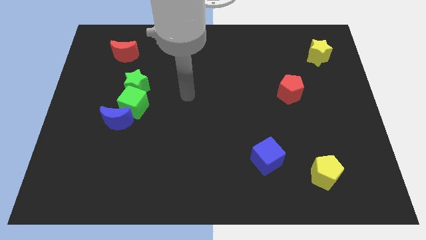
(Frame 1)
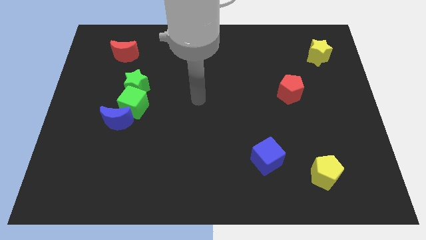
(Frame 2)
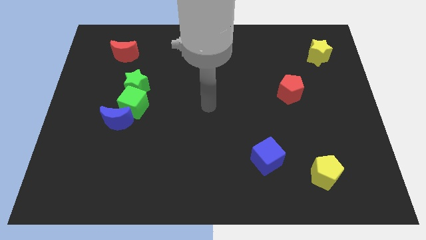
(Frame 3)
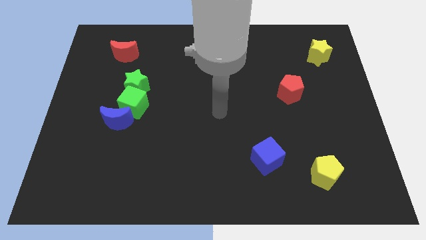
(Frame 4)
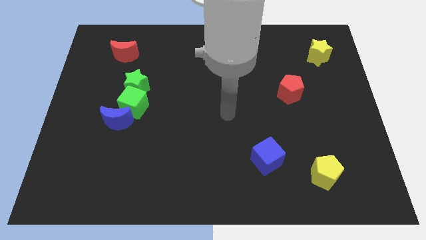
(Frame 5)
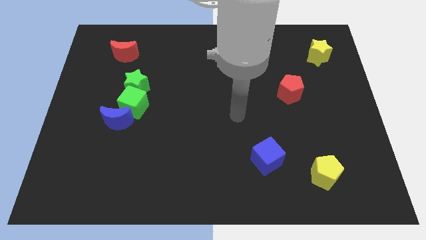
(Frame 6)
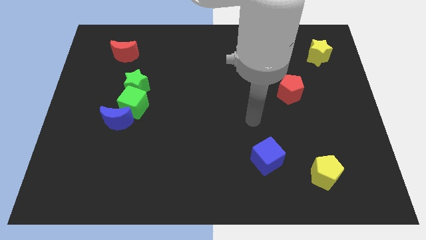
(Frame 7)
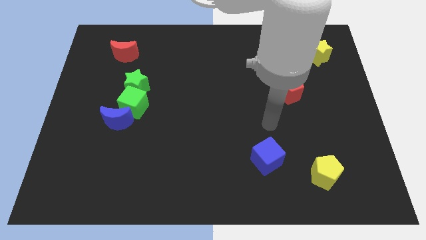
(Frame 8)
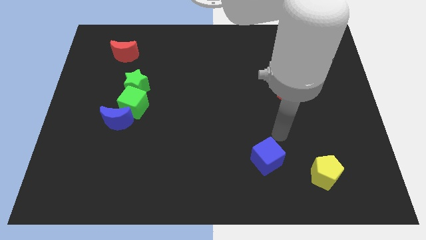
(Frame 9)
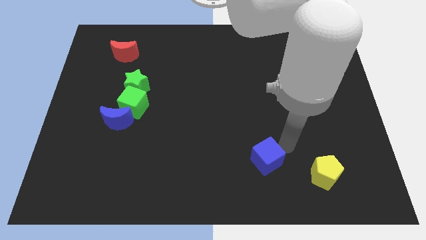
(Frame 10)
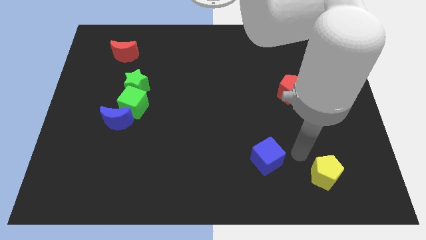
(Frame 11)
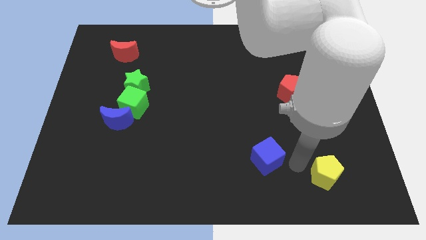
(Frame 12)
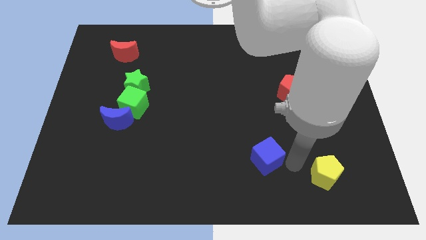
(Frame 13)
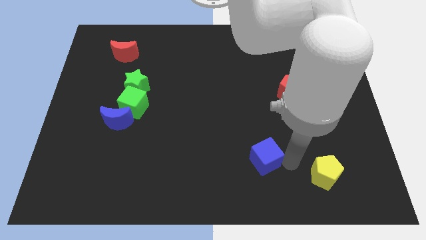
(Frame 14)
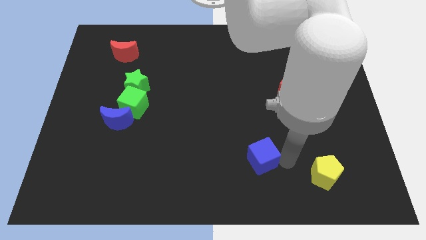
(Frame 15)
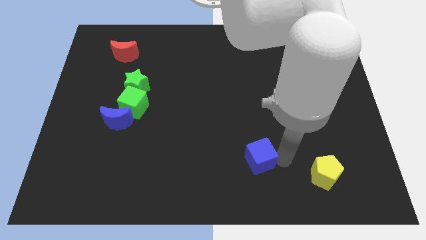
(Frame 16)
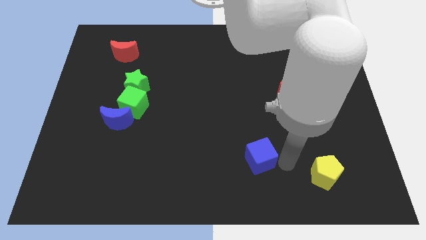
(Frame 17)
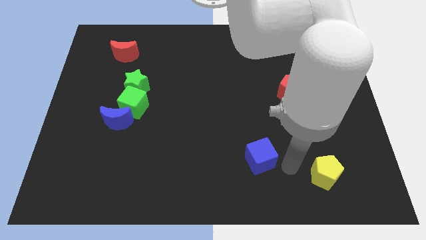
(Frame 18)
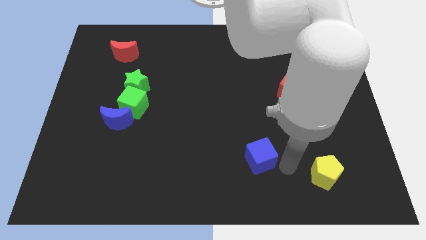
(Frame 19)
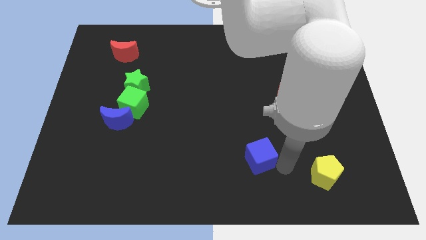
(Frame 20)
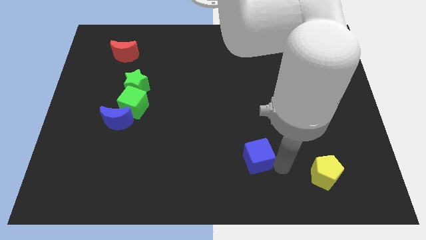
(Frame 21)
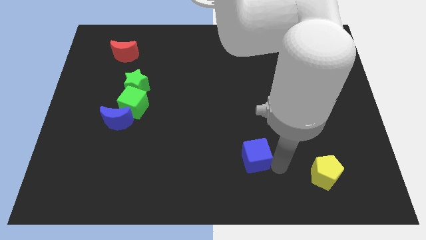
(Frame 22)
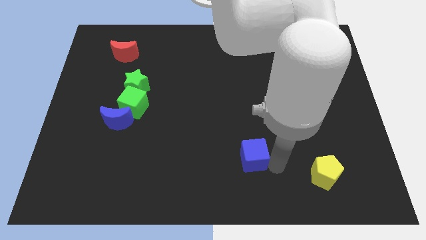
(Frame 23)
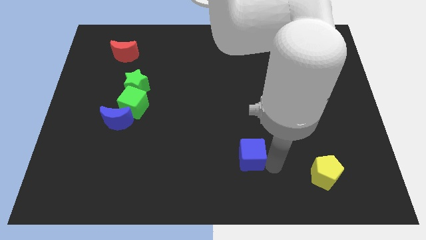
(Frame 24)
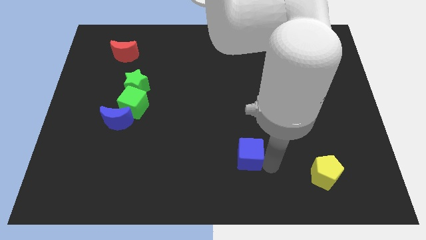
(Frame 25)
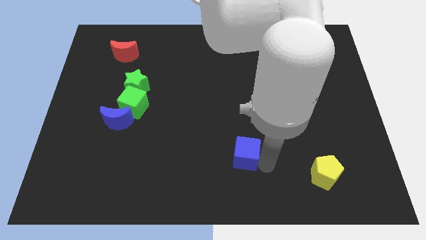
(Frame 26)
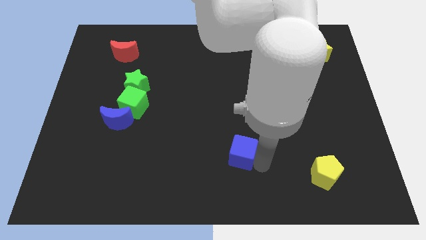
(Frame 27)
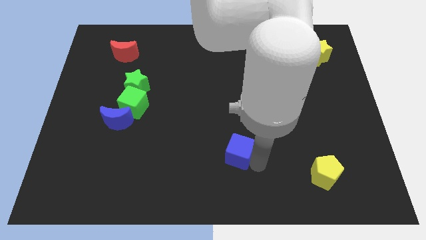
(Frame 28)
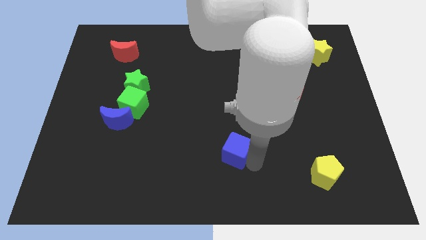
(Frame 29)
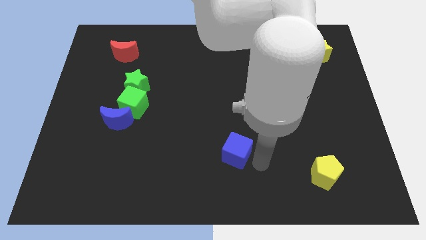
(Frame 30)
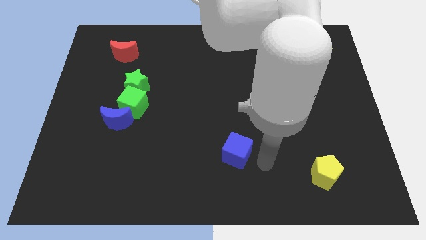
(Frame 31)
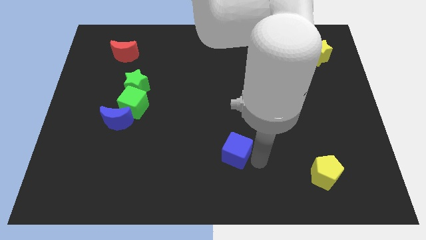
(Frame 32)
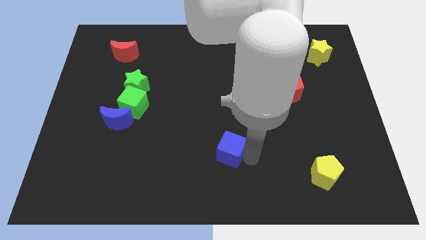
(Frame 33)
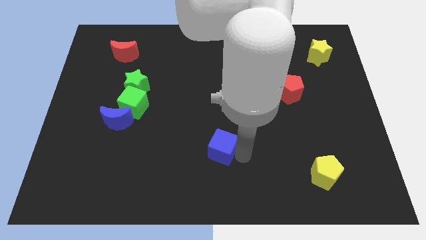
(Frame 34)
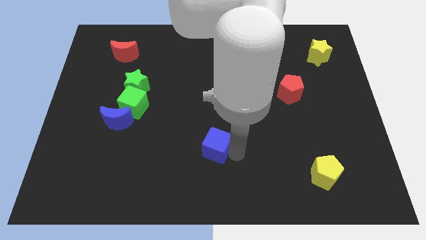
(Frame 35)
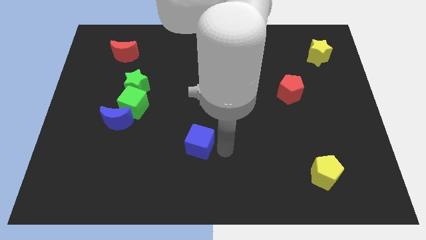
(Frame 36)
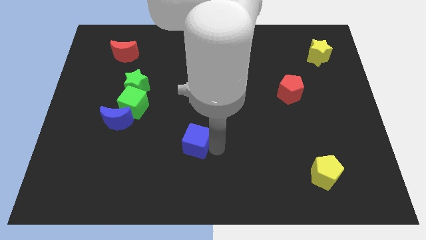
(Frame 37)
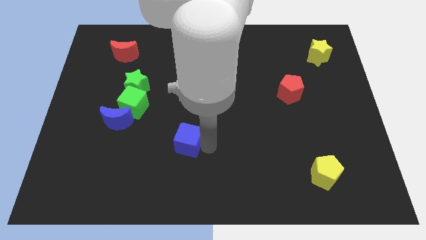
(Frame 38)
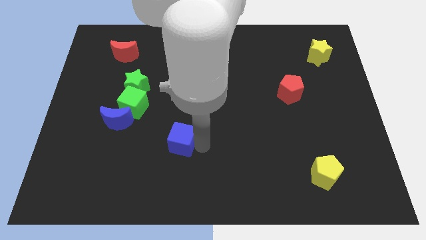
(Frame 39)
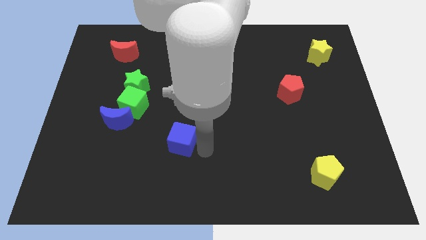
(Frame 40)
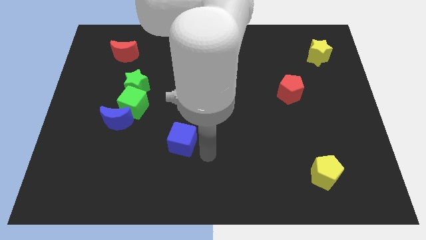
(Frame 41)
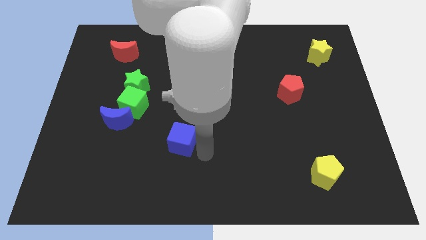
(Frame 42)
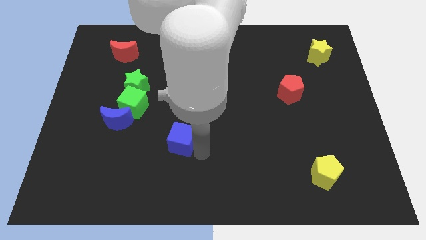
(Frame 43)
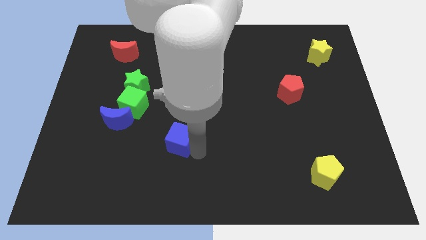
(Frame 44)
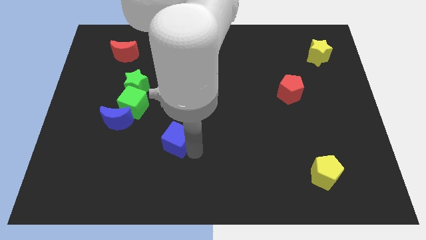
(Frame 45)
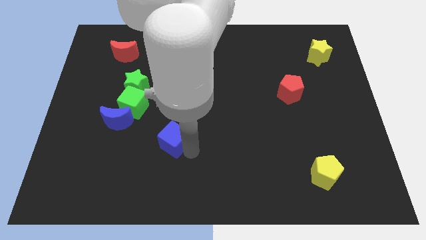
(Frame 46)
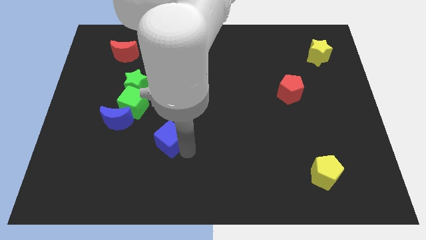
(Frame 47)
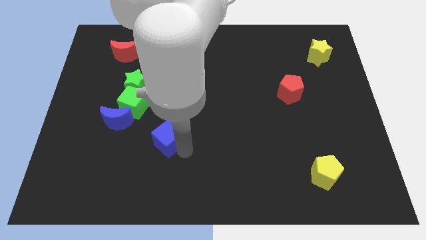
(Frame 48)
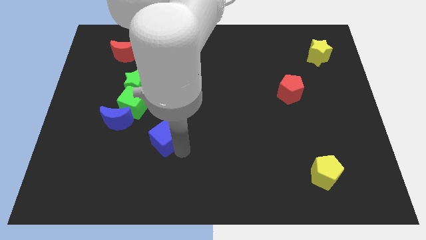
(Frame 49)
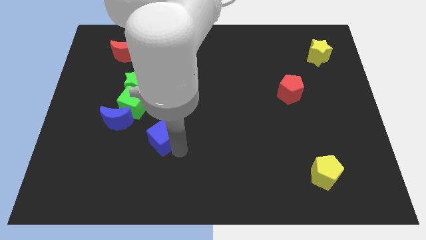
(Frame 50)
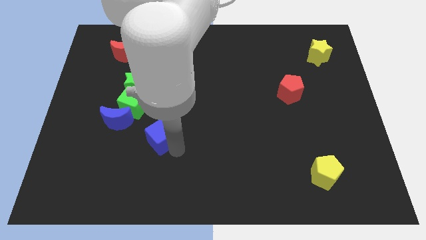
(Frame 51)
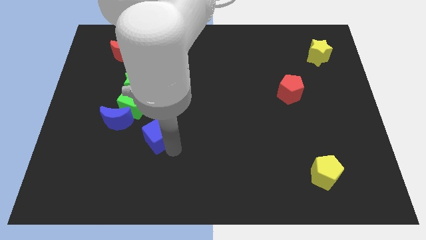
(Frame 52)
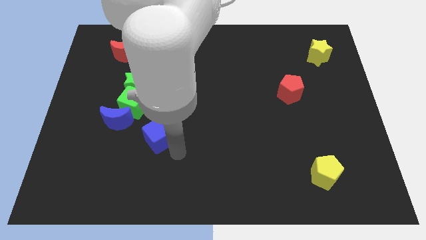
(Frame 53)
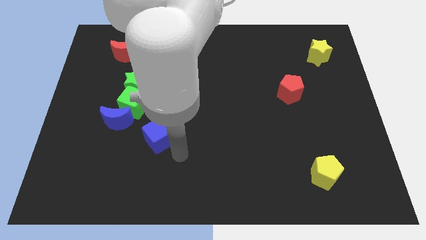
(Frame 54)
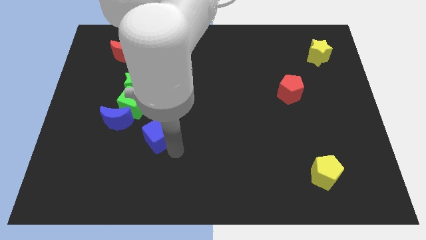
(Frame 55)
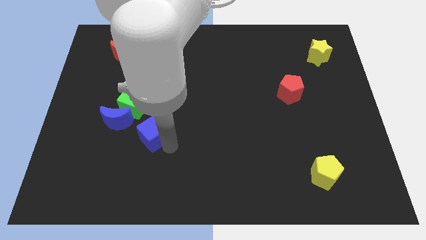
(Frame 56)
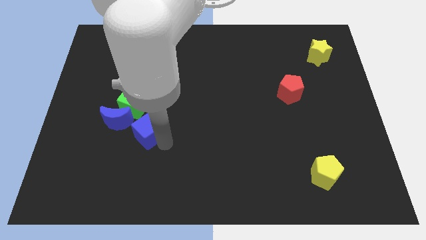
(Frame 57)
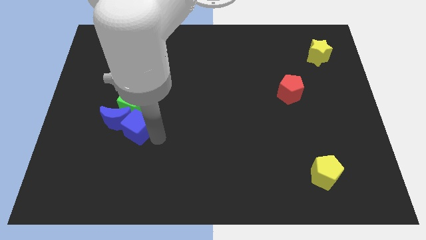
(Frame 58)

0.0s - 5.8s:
slide the blue cube towards the blue moon
